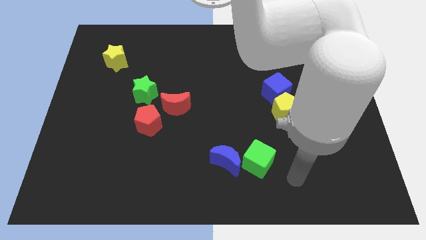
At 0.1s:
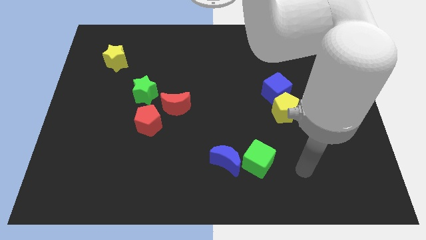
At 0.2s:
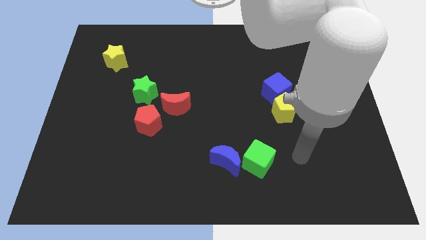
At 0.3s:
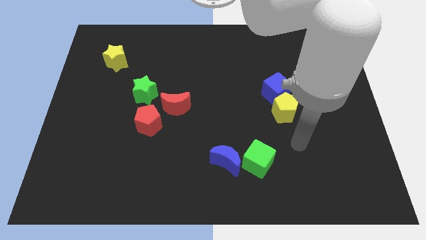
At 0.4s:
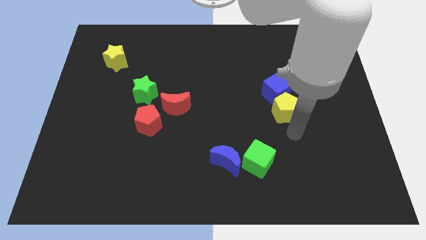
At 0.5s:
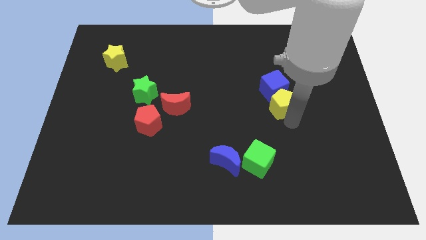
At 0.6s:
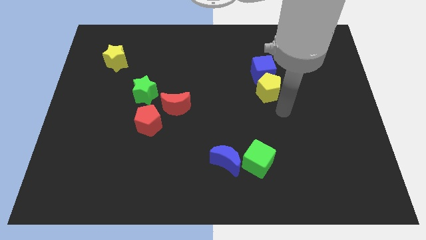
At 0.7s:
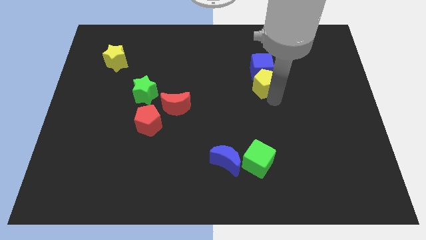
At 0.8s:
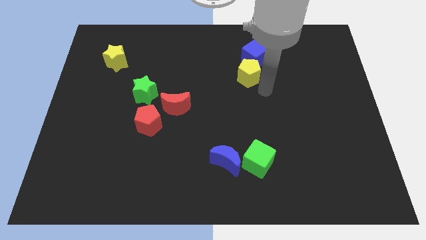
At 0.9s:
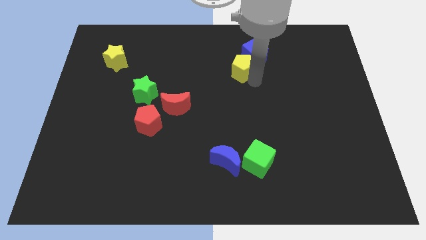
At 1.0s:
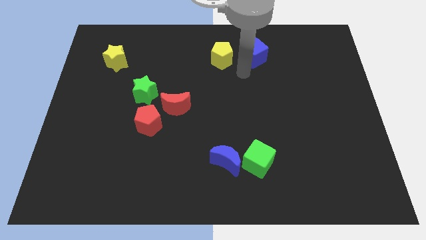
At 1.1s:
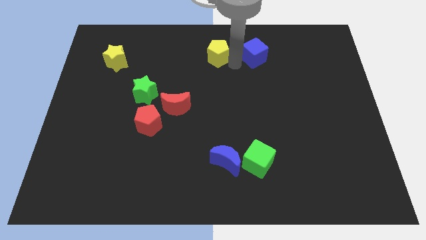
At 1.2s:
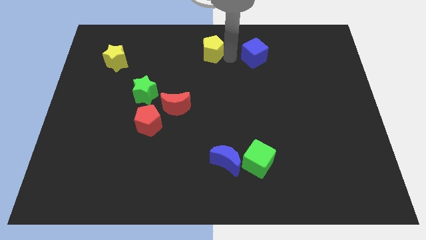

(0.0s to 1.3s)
separate the blue cube from the yellow pentagon

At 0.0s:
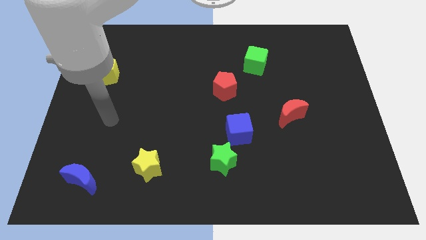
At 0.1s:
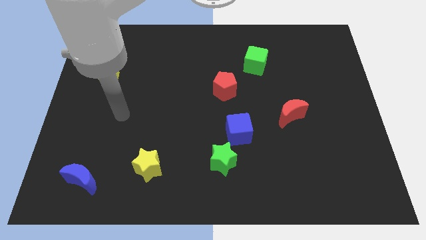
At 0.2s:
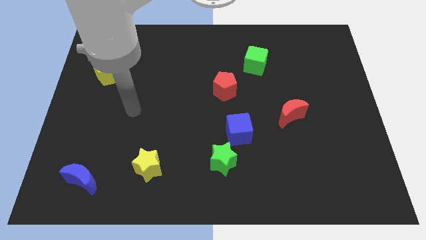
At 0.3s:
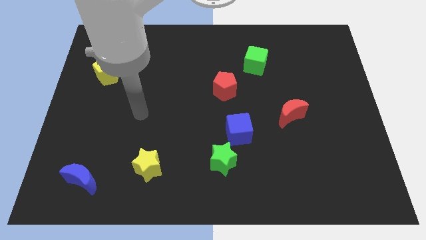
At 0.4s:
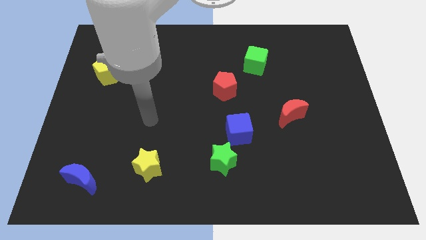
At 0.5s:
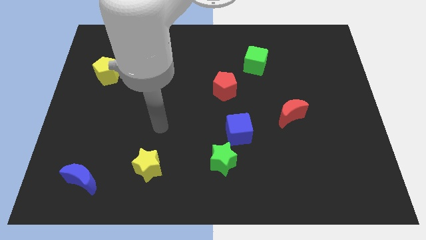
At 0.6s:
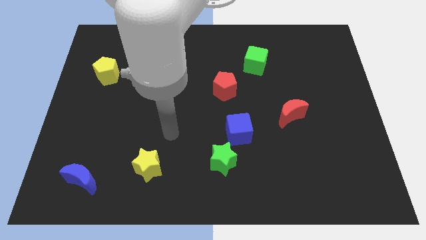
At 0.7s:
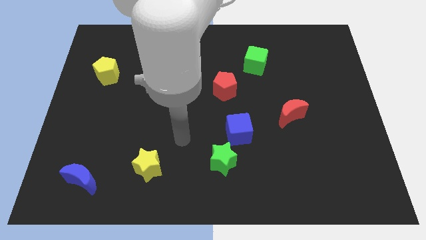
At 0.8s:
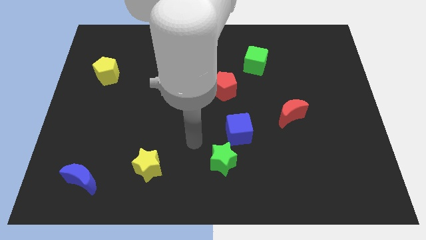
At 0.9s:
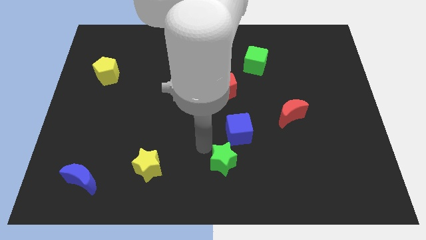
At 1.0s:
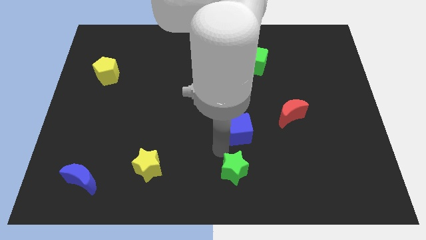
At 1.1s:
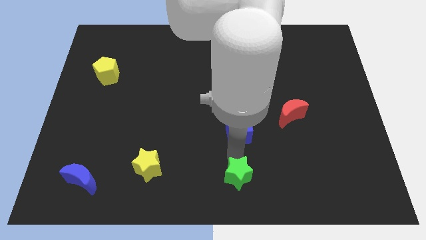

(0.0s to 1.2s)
separate the blue cube from the green star

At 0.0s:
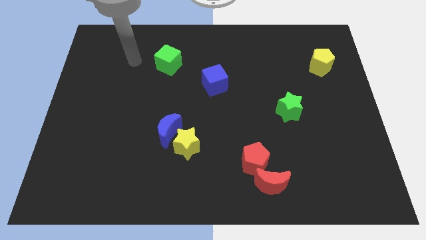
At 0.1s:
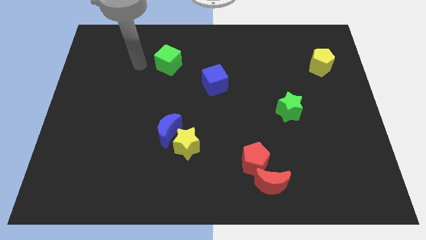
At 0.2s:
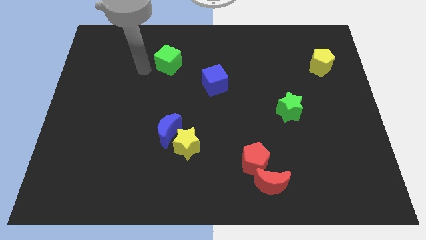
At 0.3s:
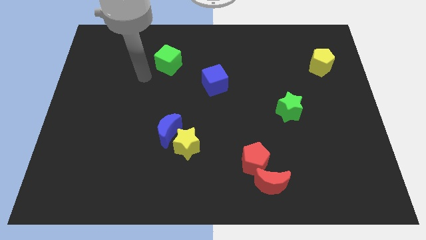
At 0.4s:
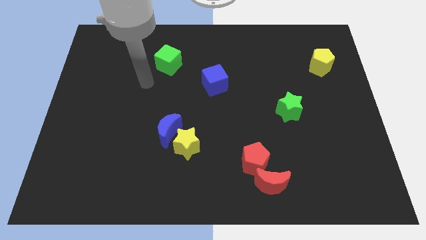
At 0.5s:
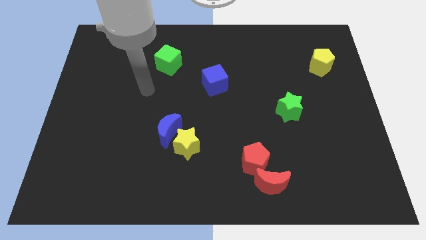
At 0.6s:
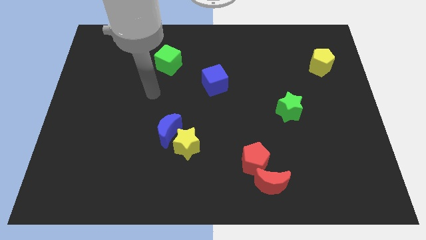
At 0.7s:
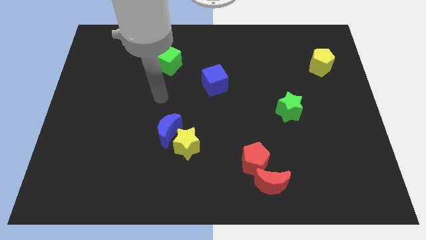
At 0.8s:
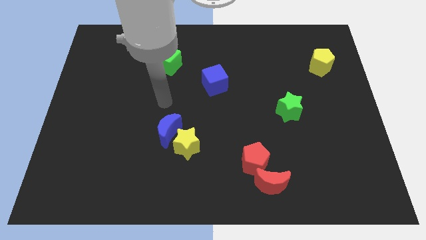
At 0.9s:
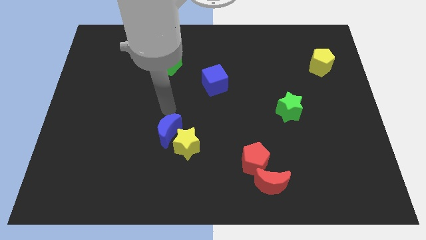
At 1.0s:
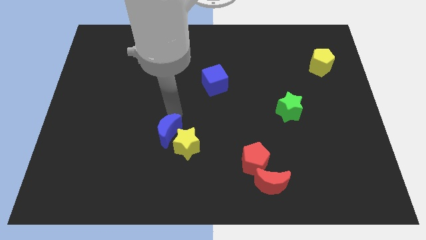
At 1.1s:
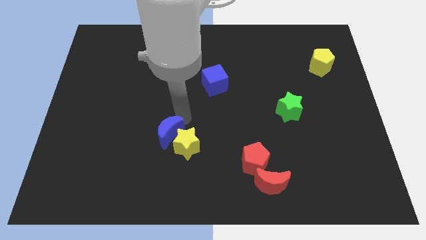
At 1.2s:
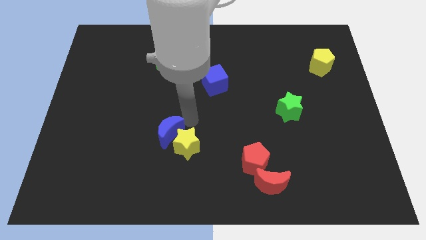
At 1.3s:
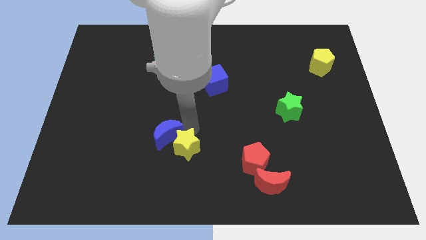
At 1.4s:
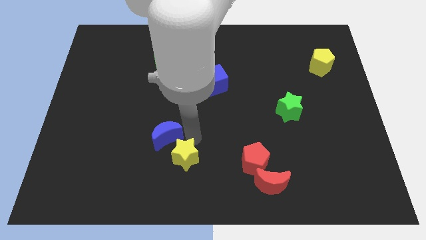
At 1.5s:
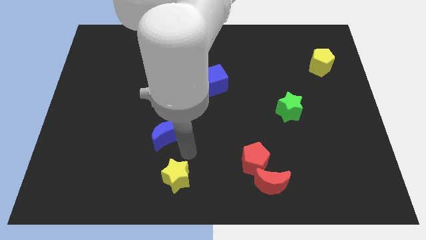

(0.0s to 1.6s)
pull the blue moon apart from the yellow star

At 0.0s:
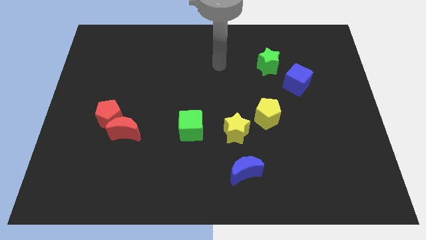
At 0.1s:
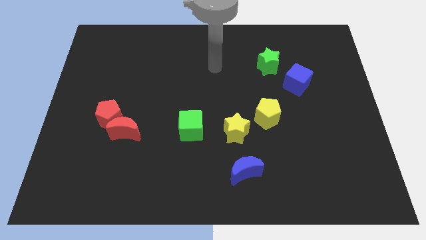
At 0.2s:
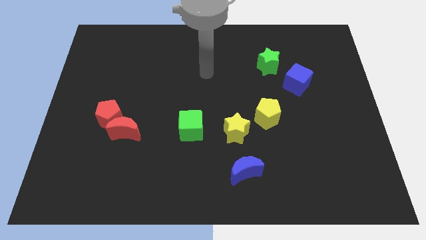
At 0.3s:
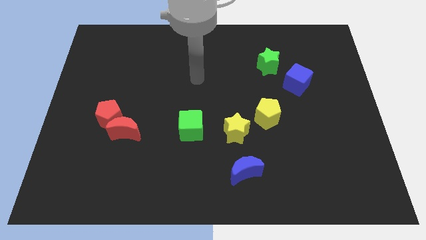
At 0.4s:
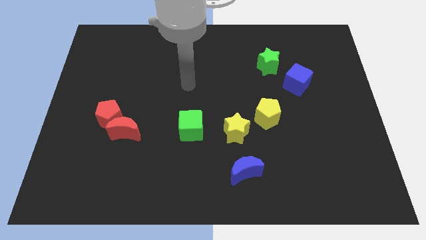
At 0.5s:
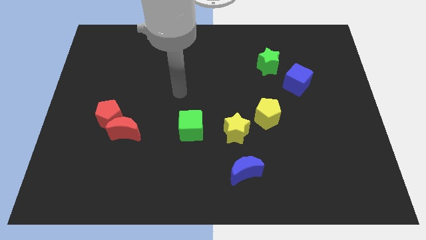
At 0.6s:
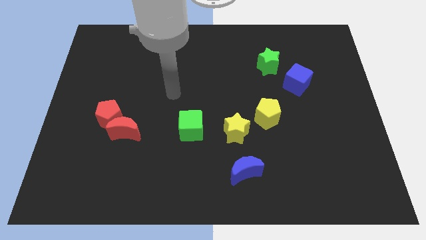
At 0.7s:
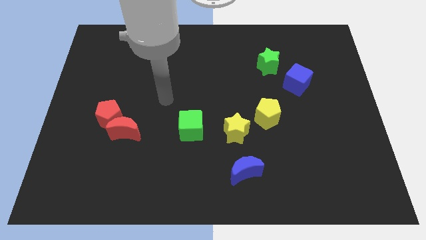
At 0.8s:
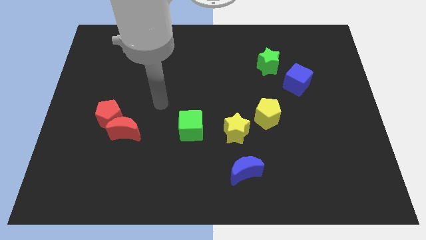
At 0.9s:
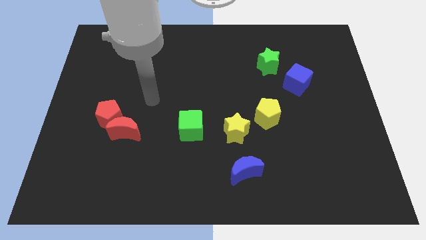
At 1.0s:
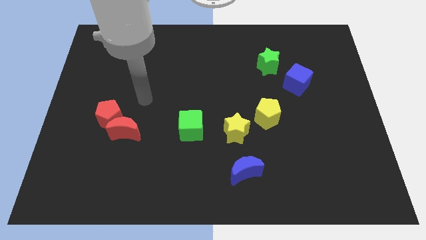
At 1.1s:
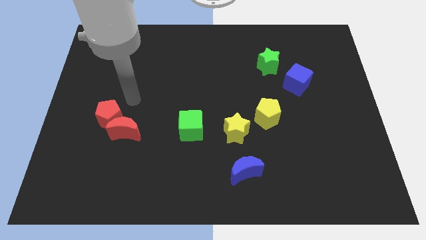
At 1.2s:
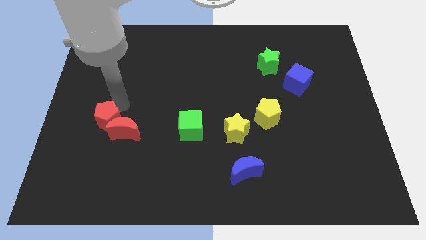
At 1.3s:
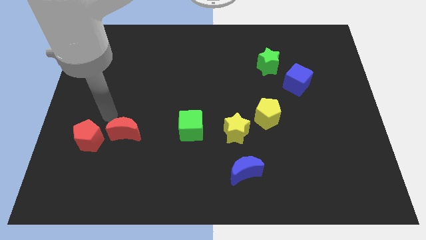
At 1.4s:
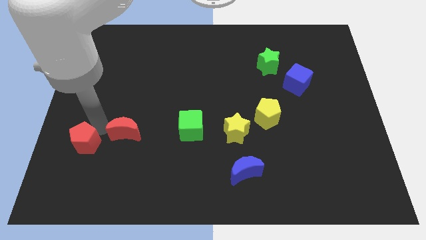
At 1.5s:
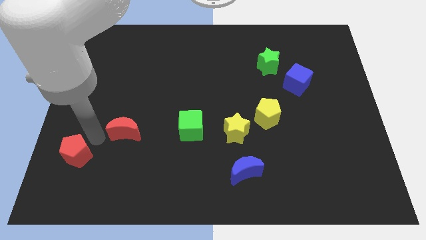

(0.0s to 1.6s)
separate the red moon from the red pentagon

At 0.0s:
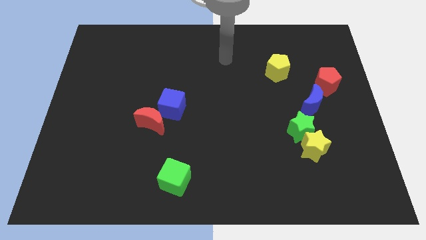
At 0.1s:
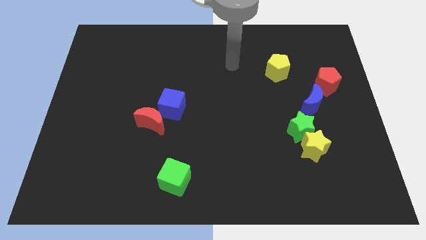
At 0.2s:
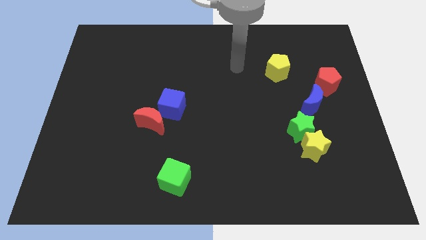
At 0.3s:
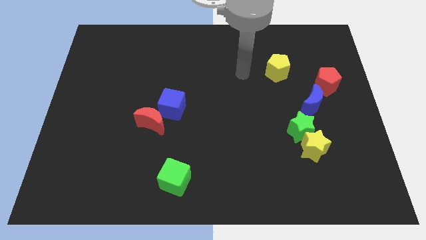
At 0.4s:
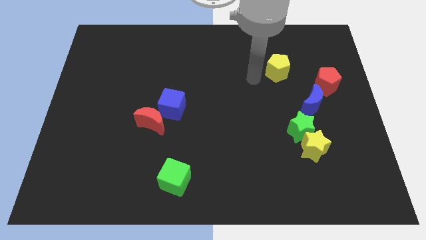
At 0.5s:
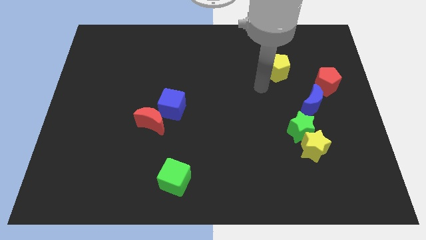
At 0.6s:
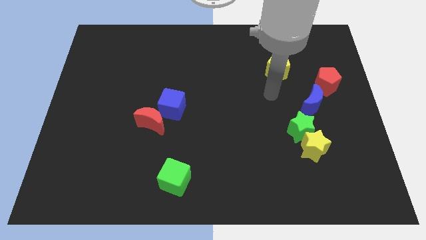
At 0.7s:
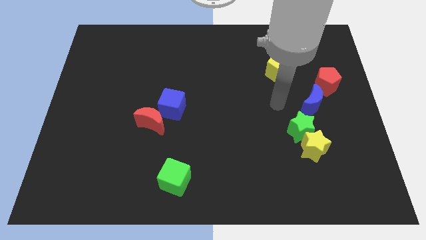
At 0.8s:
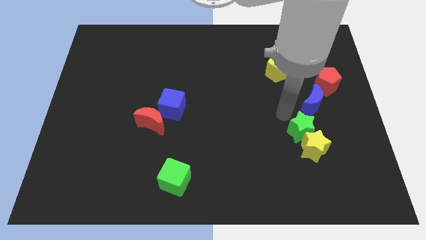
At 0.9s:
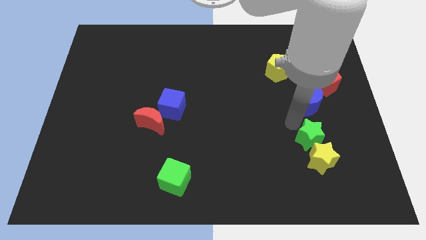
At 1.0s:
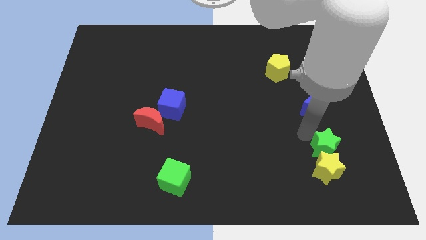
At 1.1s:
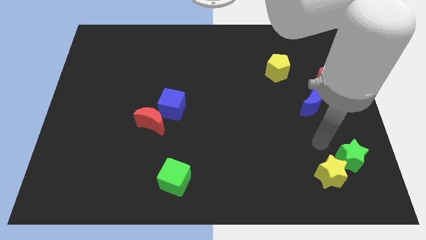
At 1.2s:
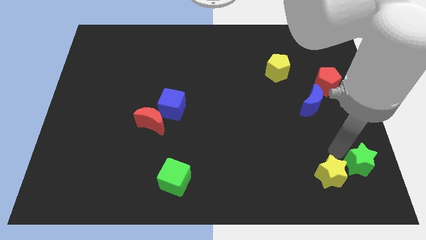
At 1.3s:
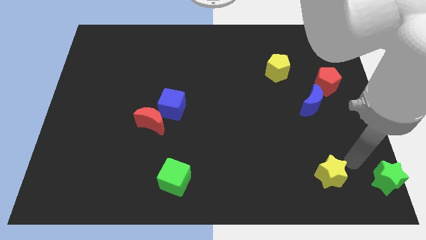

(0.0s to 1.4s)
pull the yellow star apart from the green star

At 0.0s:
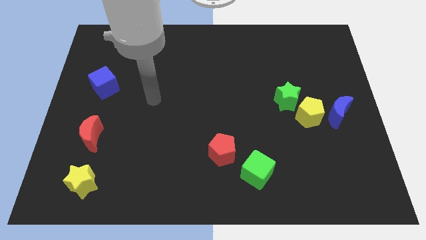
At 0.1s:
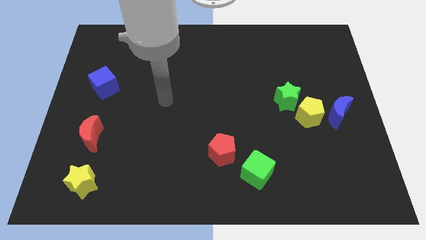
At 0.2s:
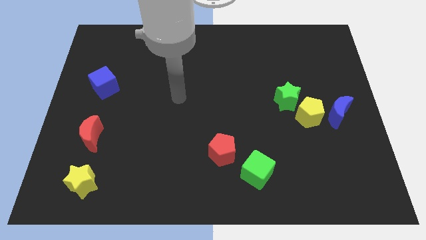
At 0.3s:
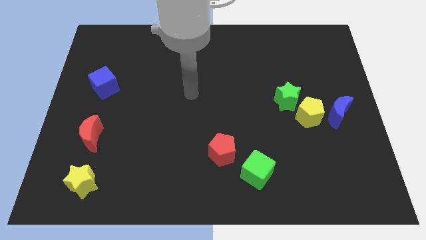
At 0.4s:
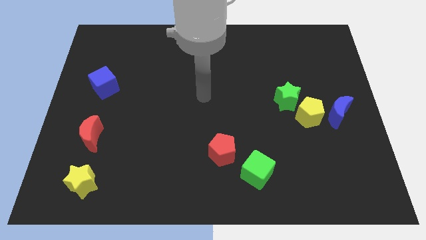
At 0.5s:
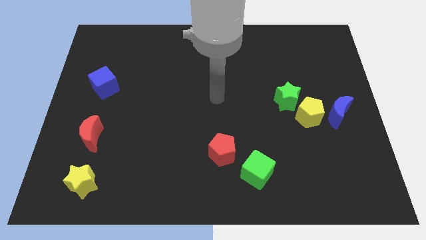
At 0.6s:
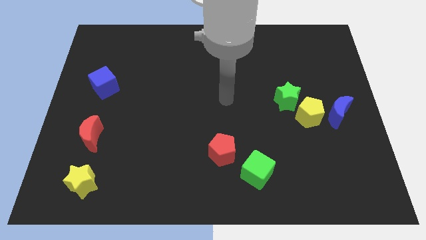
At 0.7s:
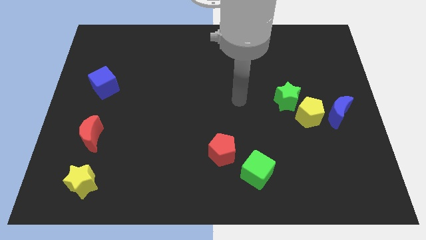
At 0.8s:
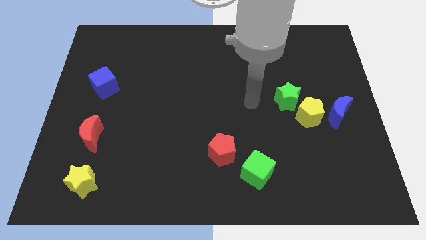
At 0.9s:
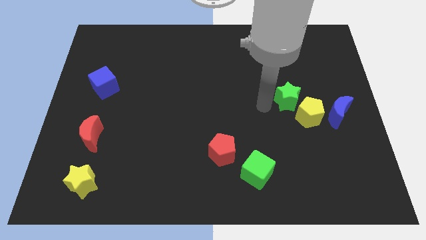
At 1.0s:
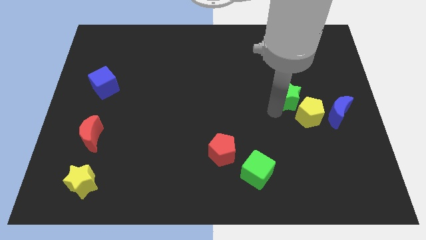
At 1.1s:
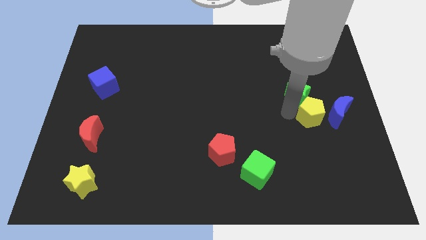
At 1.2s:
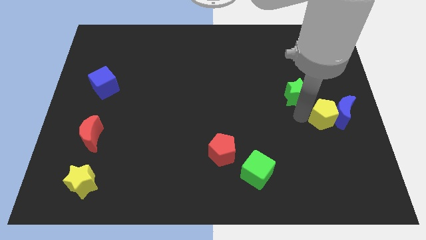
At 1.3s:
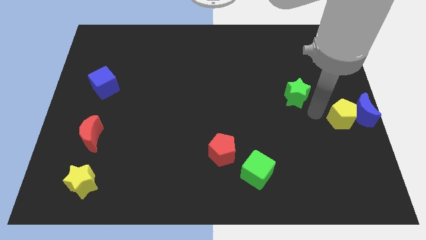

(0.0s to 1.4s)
move the green star away from the yellow pentagon

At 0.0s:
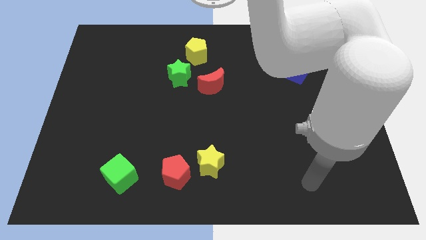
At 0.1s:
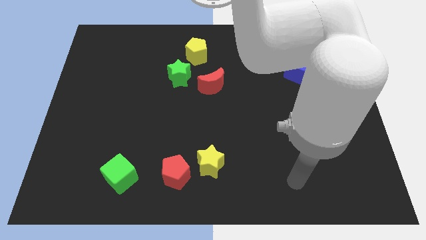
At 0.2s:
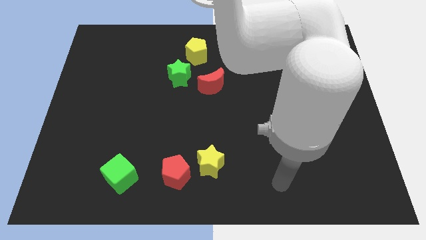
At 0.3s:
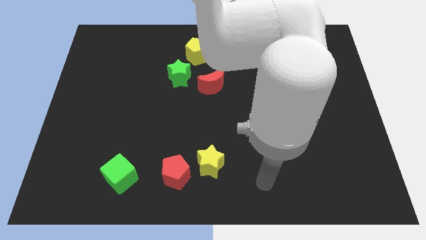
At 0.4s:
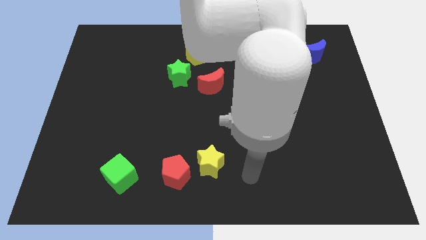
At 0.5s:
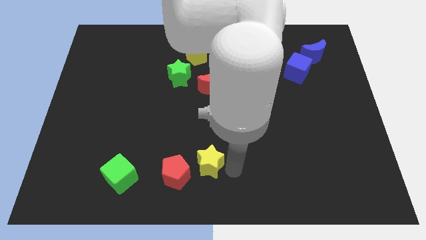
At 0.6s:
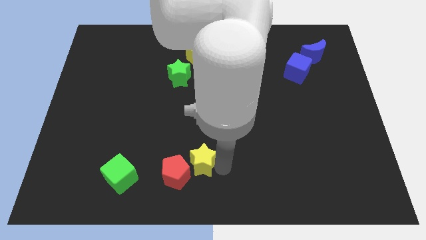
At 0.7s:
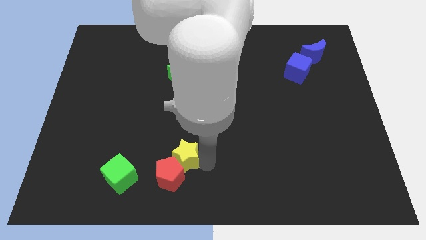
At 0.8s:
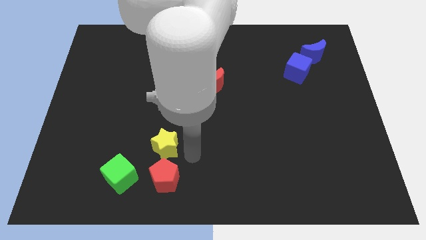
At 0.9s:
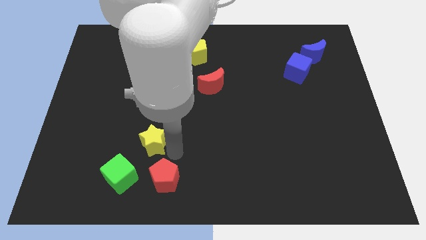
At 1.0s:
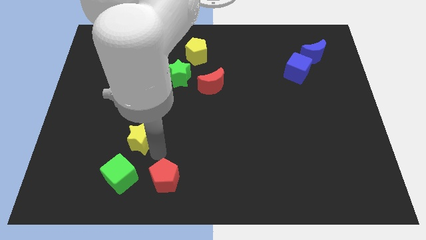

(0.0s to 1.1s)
pull the red pentagon apart from the yellow star
